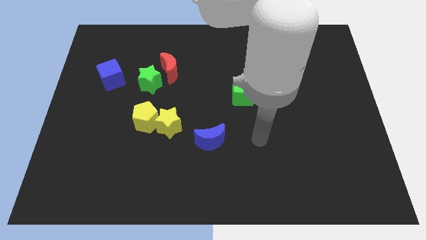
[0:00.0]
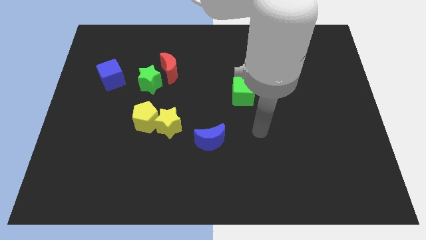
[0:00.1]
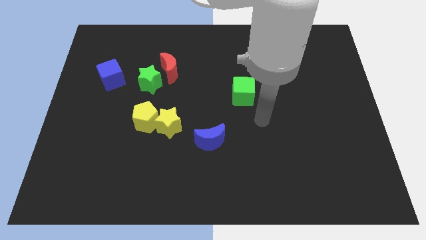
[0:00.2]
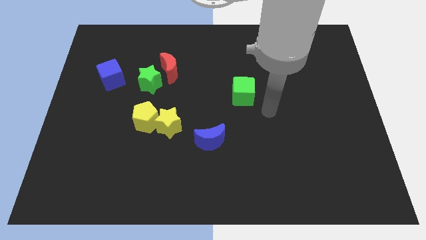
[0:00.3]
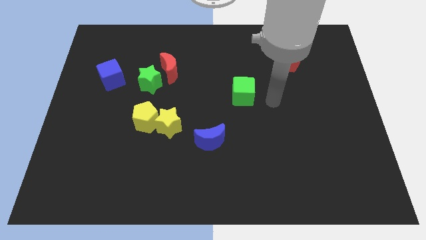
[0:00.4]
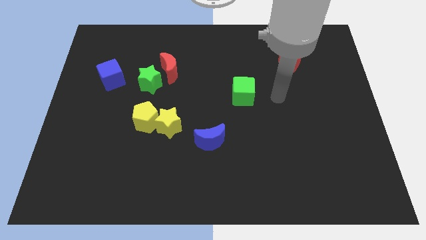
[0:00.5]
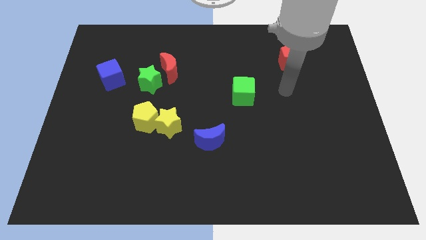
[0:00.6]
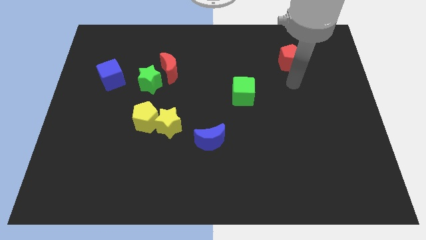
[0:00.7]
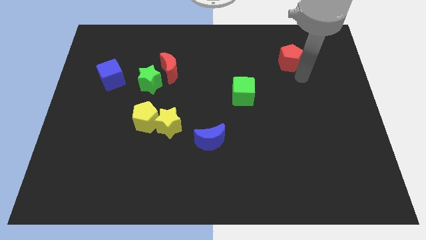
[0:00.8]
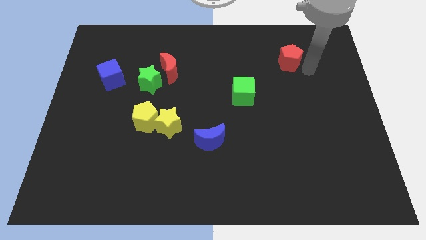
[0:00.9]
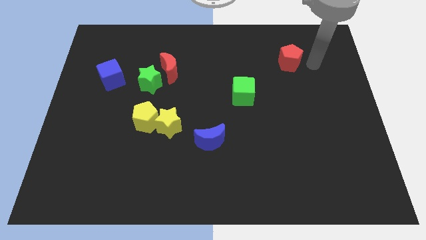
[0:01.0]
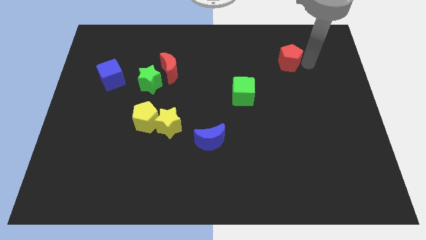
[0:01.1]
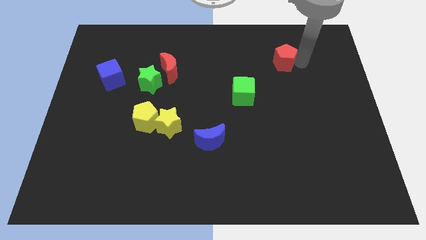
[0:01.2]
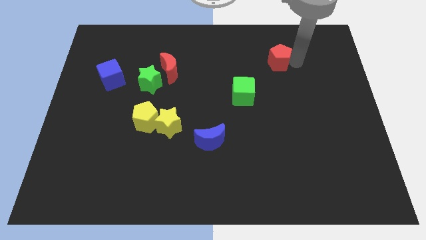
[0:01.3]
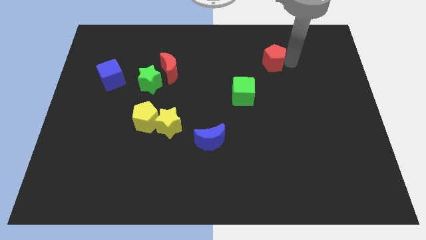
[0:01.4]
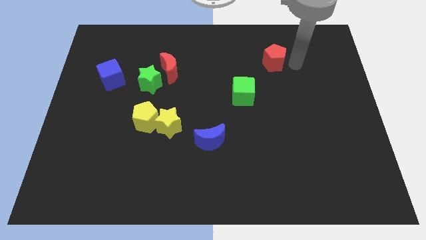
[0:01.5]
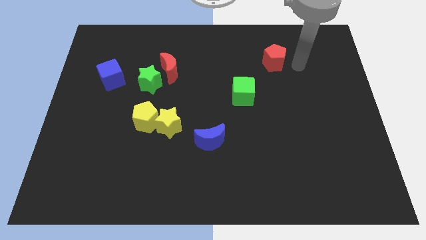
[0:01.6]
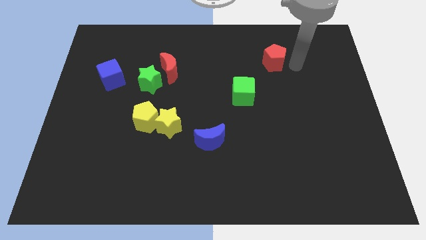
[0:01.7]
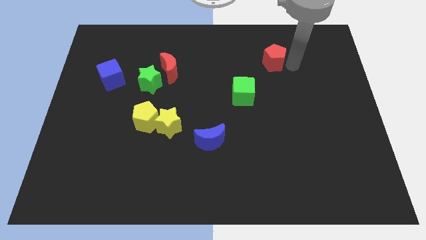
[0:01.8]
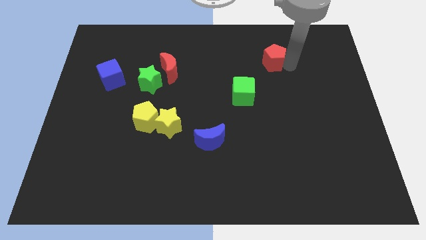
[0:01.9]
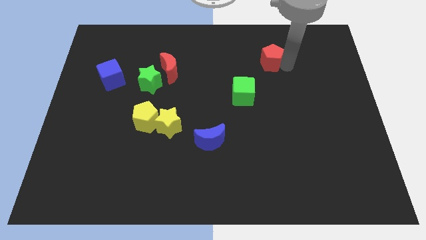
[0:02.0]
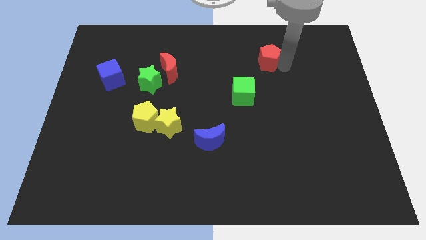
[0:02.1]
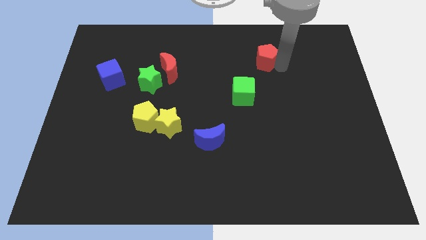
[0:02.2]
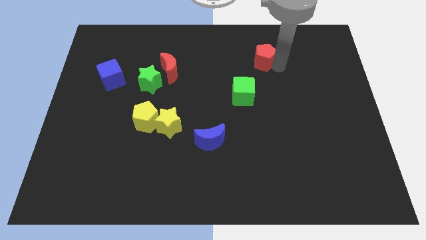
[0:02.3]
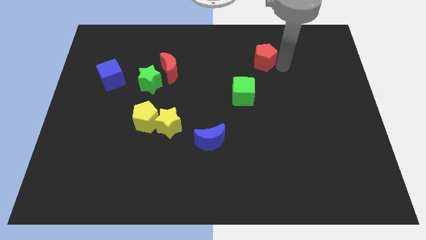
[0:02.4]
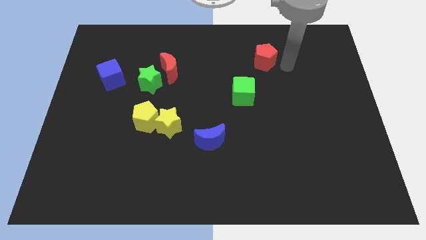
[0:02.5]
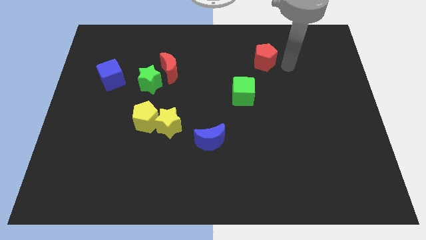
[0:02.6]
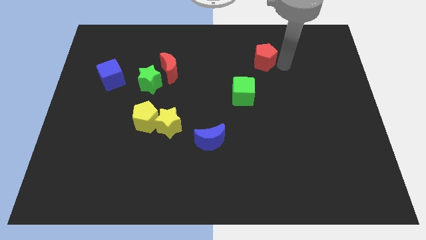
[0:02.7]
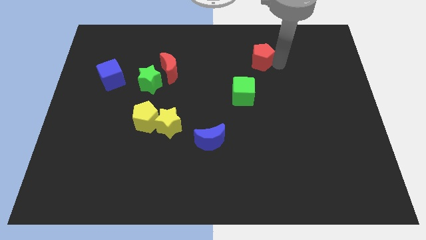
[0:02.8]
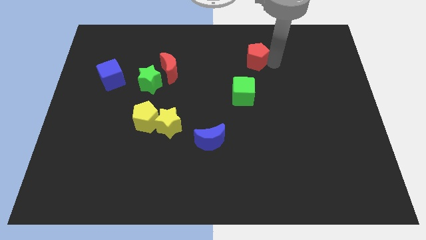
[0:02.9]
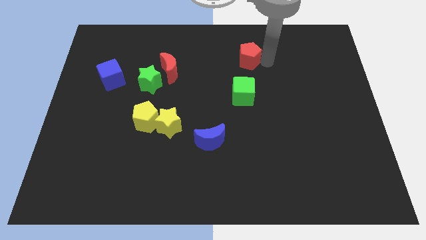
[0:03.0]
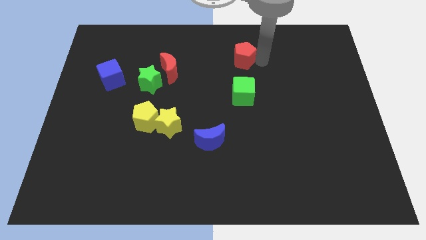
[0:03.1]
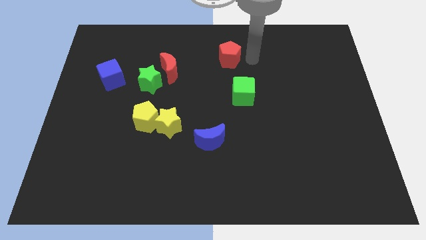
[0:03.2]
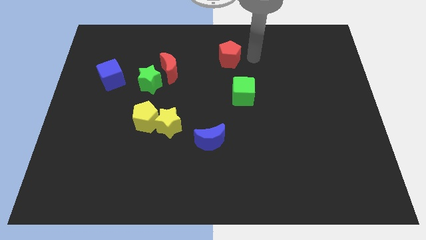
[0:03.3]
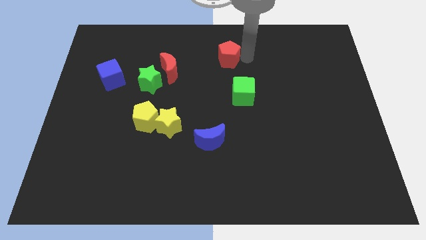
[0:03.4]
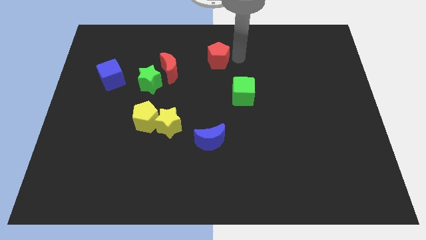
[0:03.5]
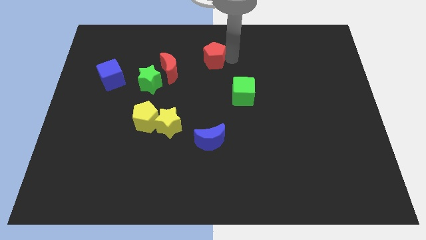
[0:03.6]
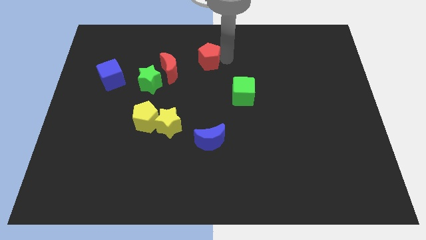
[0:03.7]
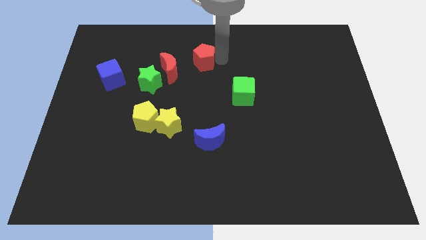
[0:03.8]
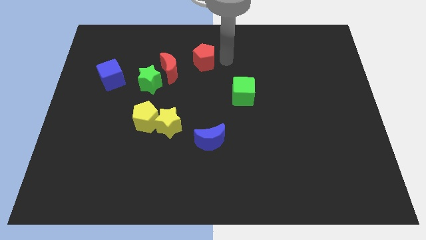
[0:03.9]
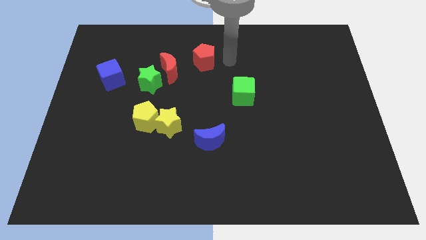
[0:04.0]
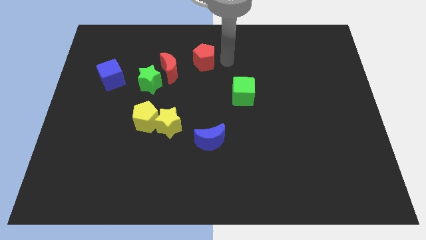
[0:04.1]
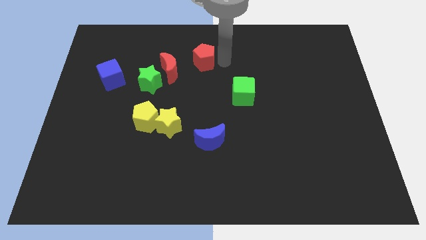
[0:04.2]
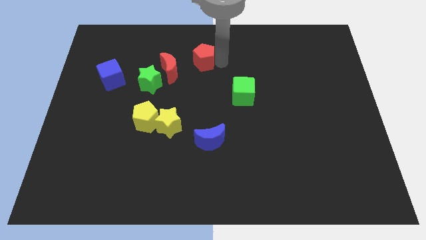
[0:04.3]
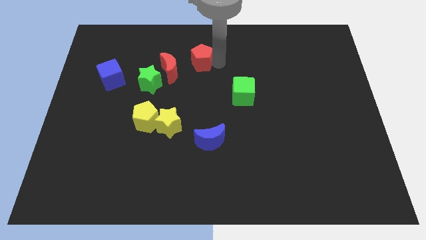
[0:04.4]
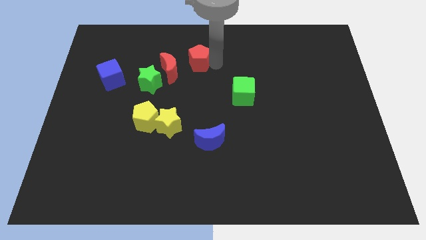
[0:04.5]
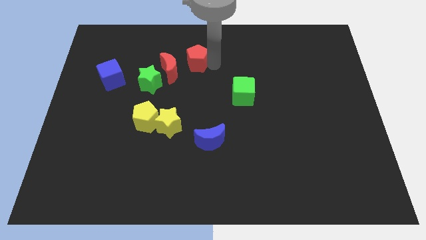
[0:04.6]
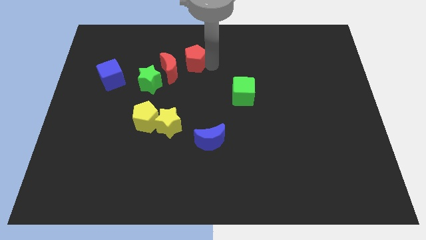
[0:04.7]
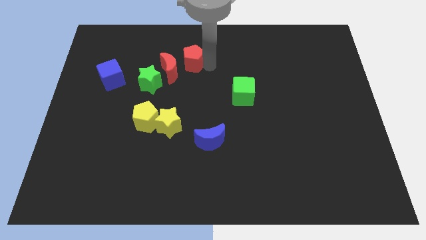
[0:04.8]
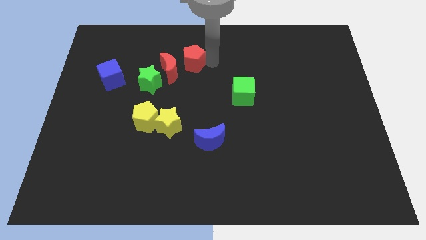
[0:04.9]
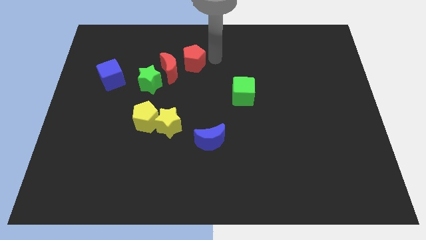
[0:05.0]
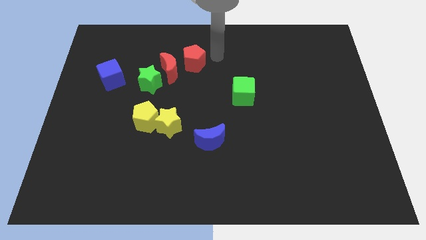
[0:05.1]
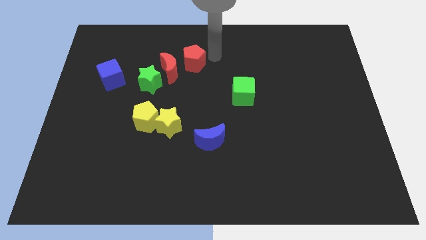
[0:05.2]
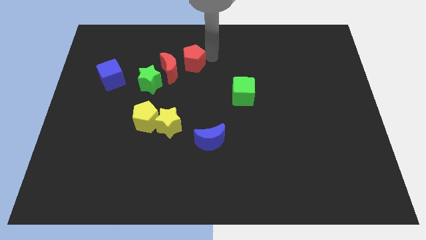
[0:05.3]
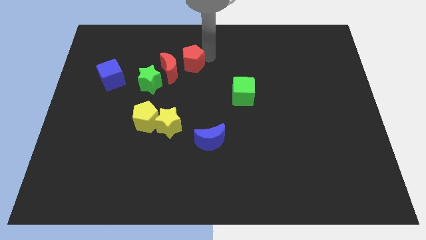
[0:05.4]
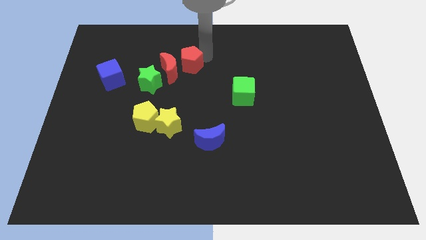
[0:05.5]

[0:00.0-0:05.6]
move the red pentagon to the top right side of the green star

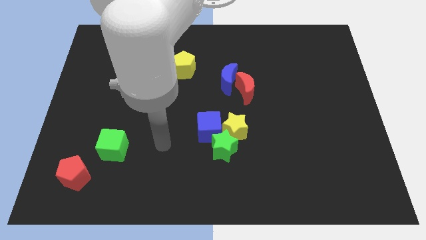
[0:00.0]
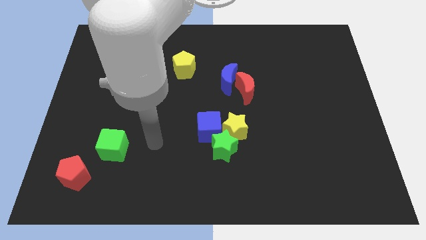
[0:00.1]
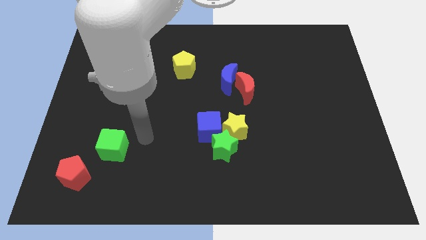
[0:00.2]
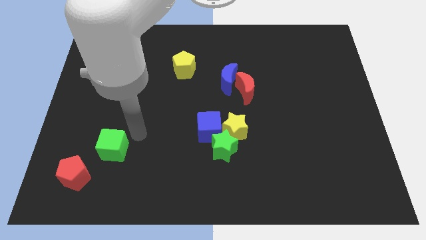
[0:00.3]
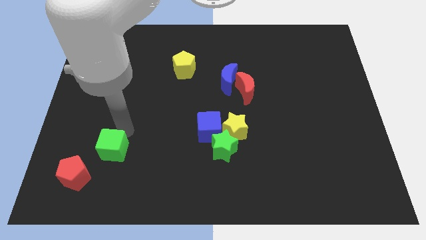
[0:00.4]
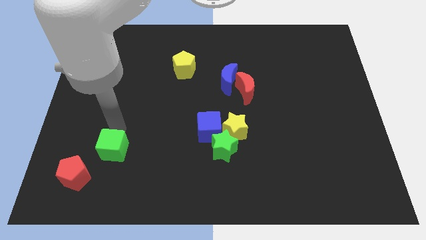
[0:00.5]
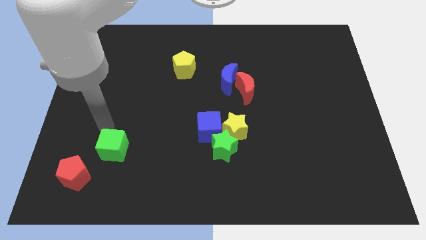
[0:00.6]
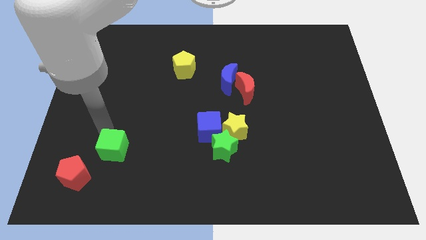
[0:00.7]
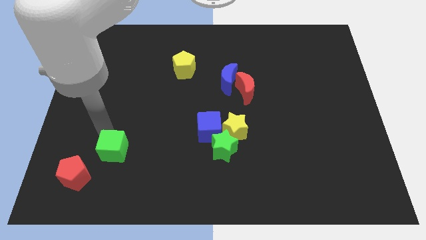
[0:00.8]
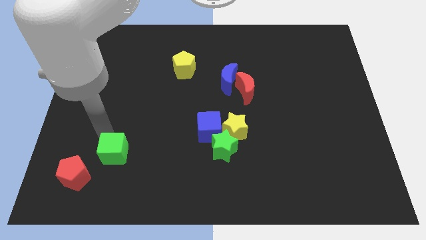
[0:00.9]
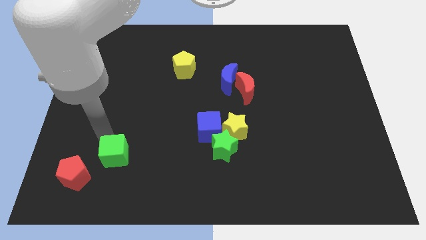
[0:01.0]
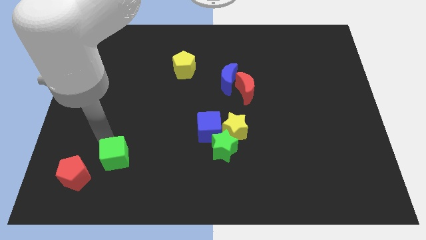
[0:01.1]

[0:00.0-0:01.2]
push the green cube just right of the red pentagon
